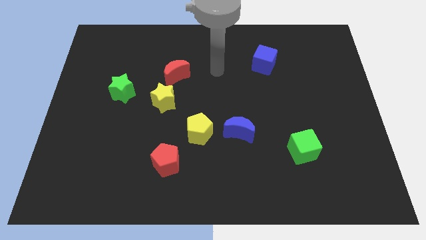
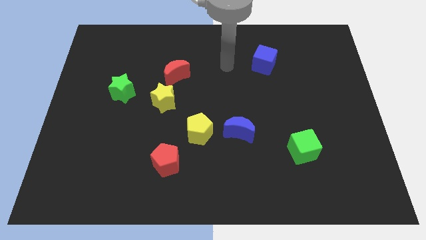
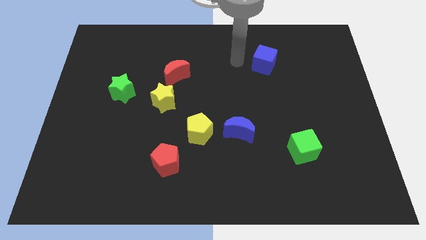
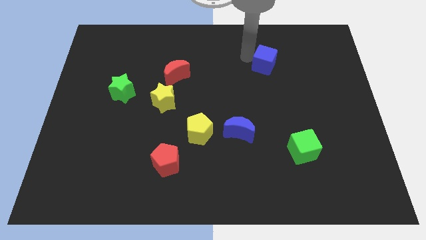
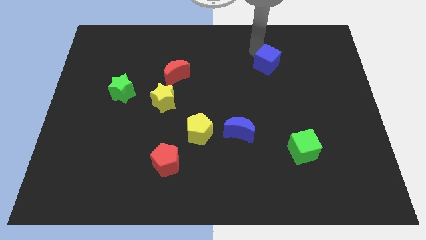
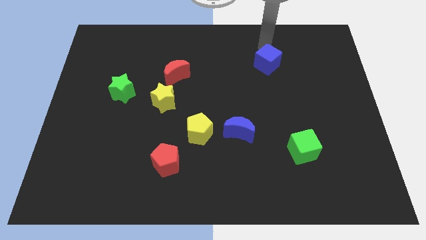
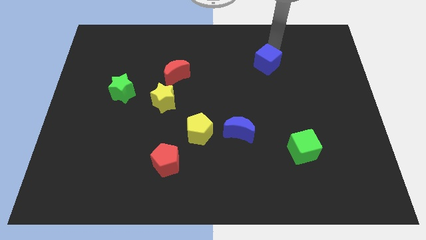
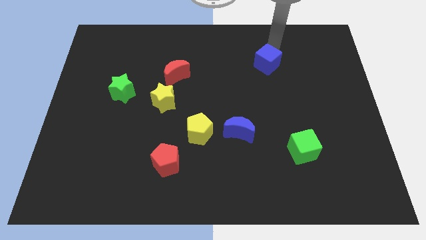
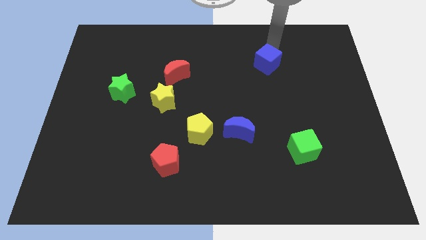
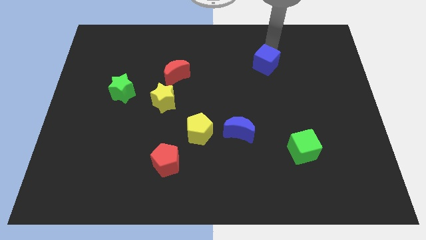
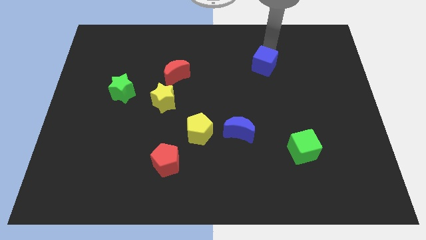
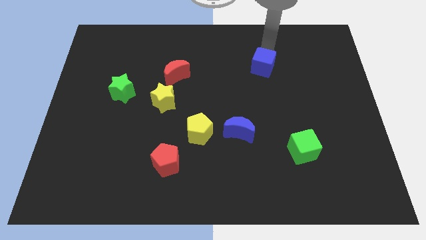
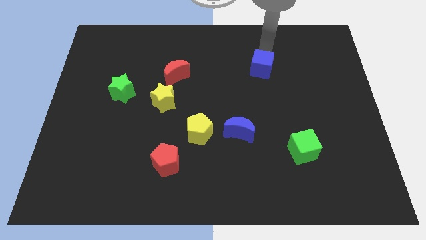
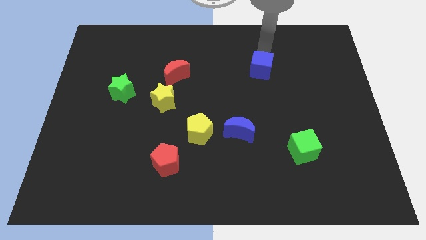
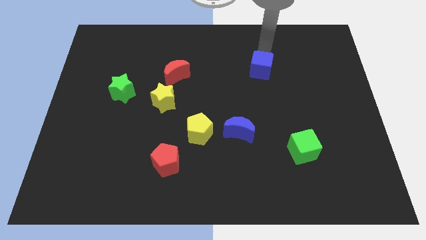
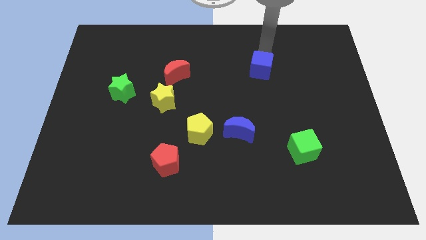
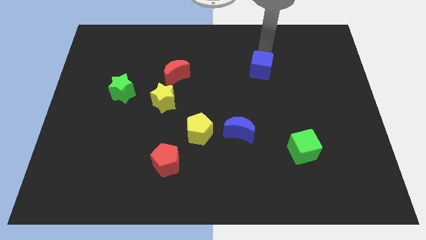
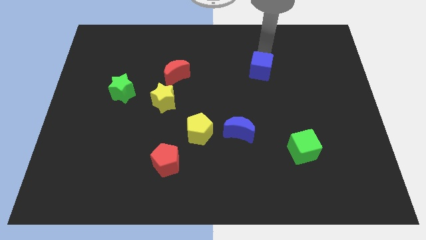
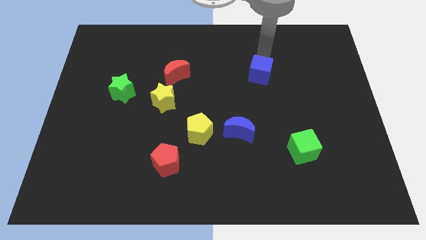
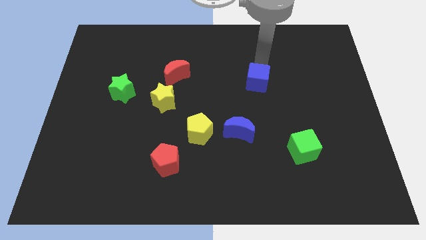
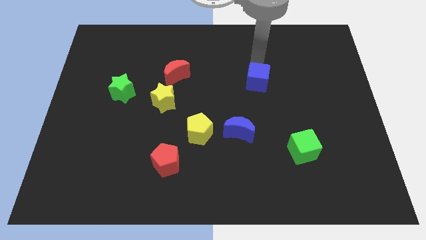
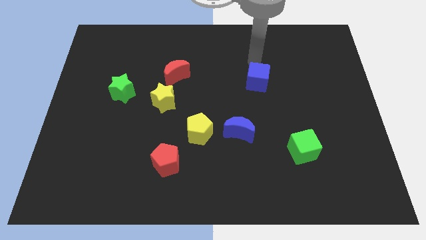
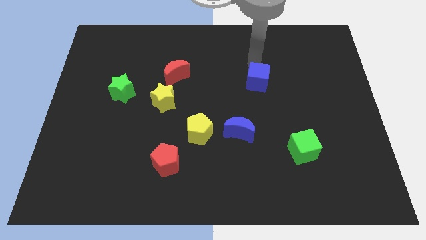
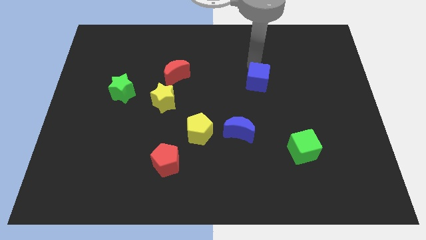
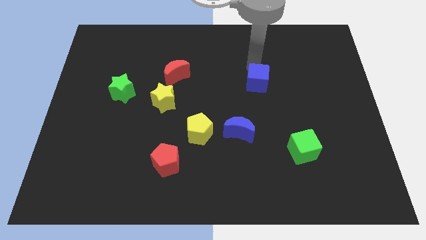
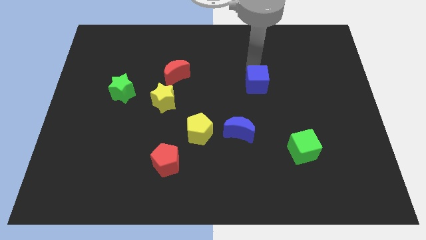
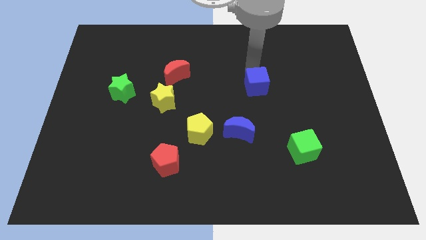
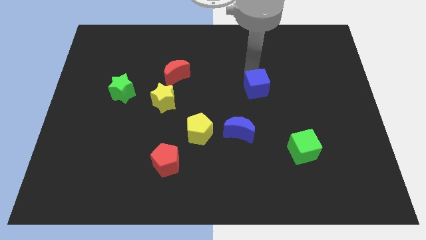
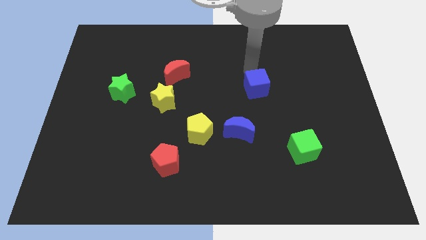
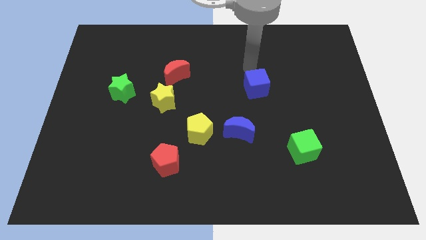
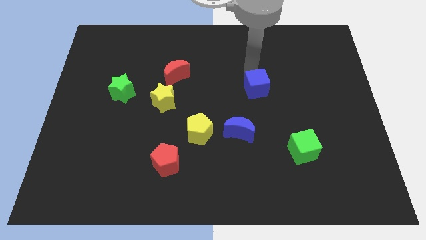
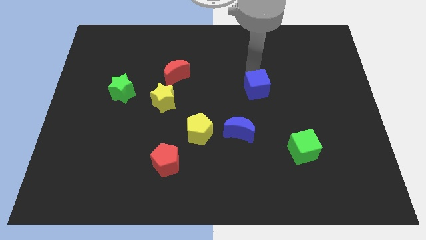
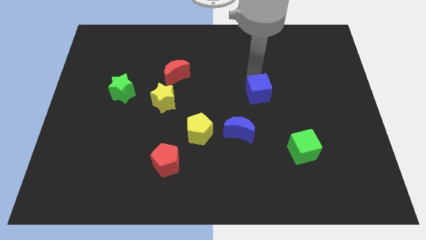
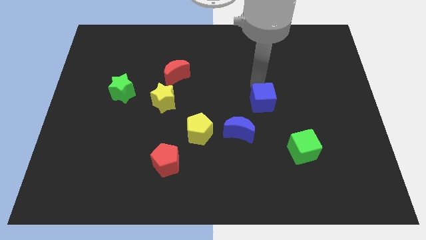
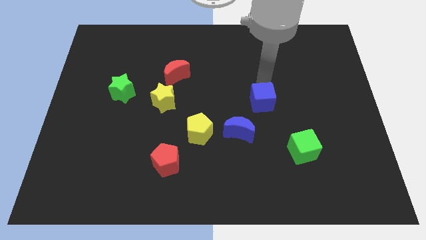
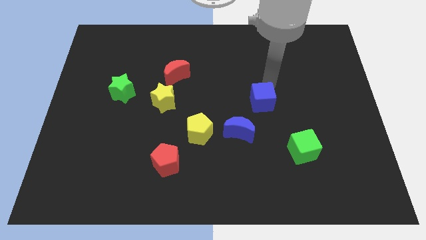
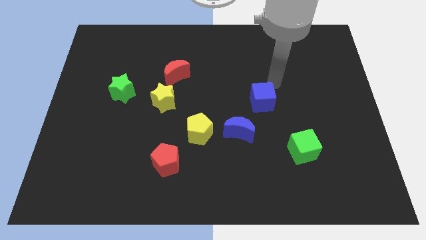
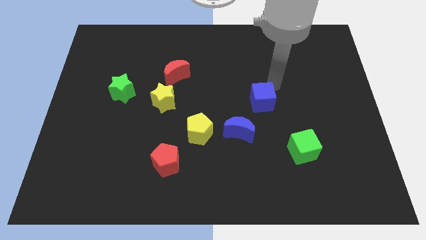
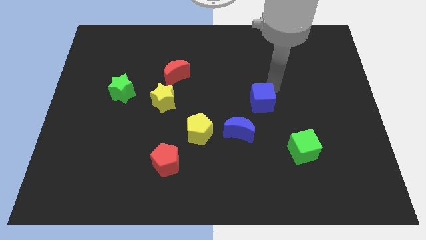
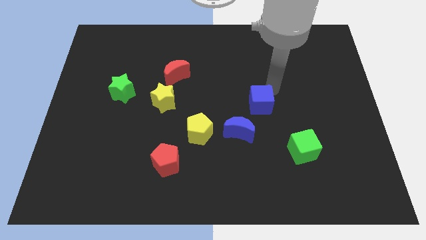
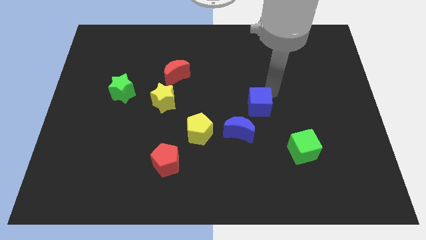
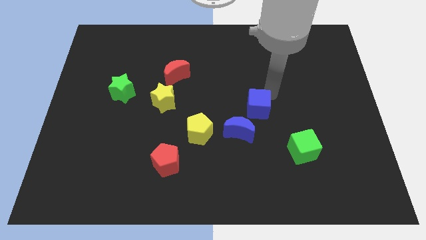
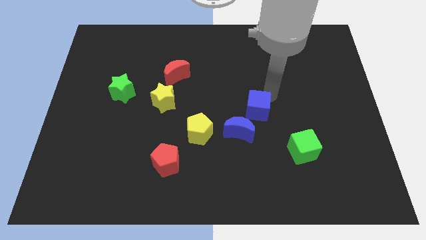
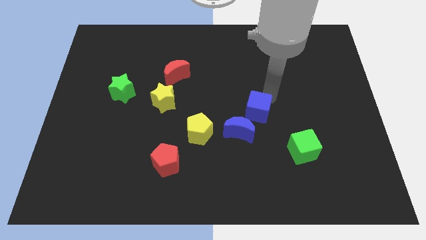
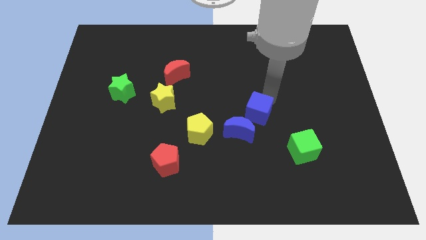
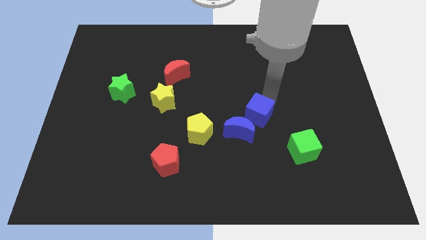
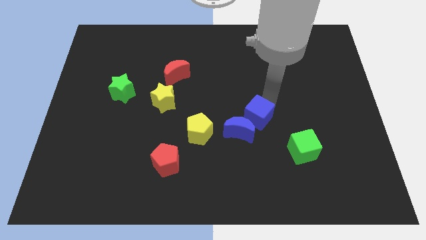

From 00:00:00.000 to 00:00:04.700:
move the blue cube next to the blue moon

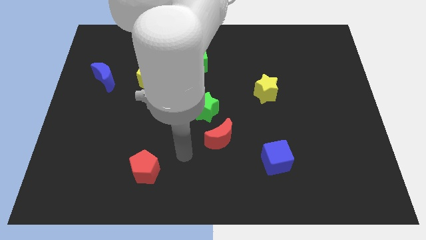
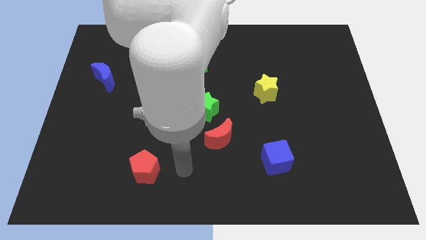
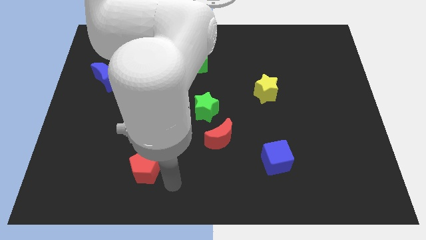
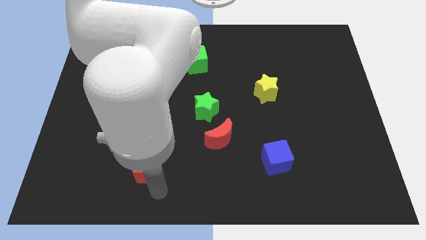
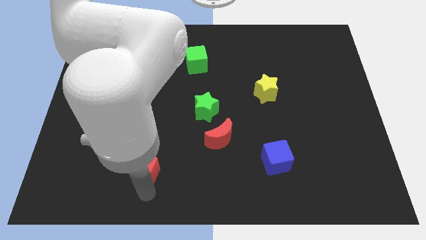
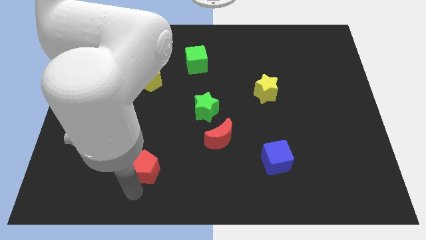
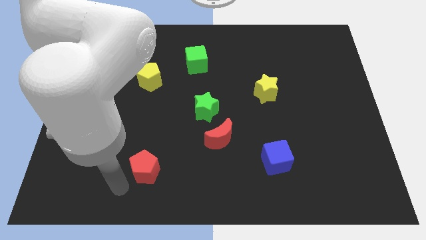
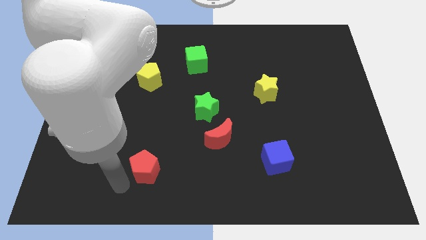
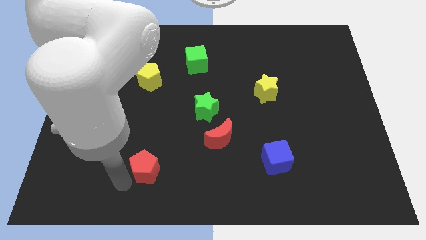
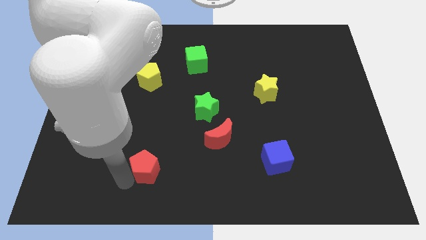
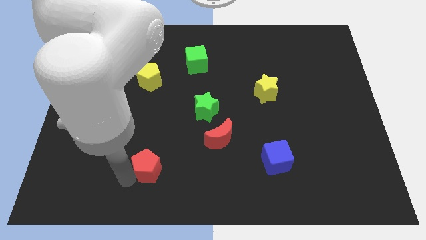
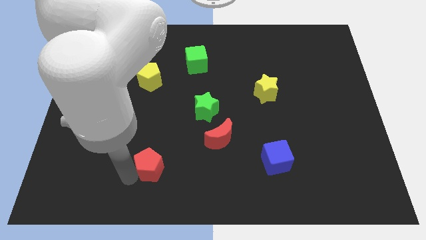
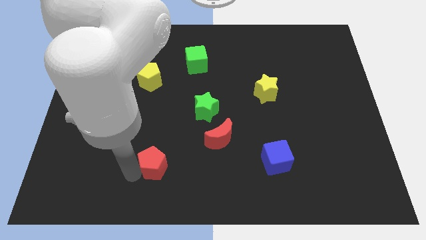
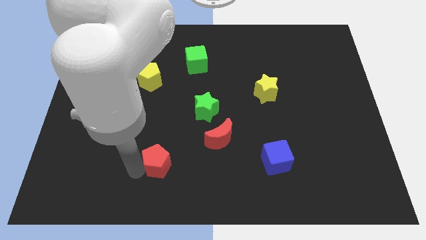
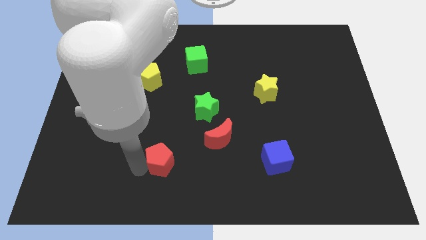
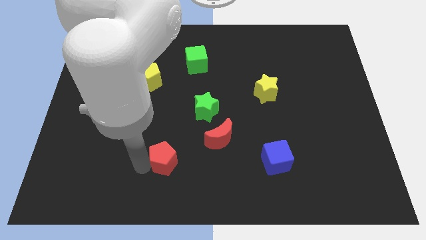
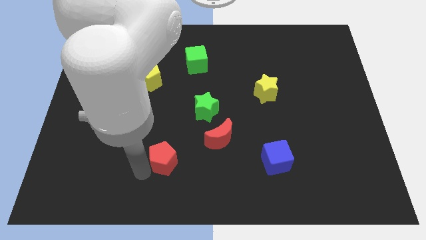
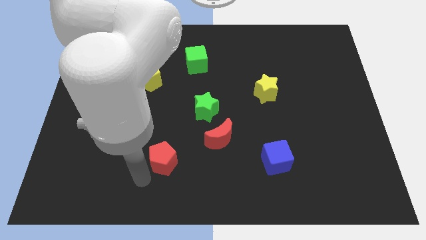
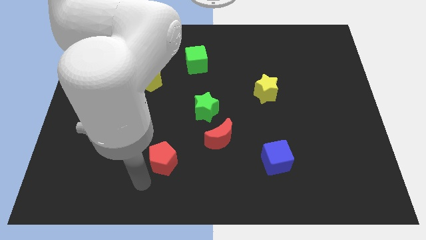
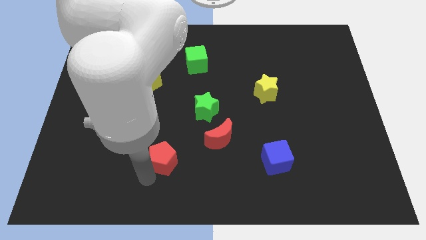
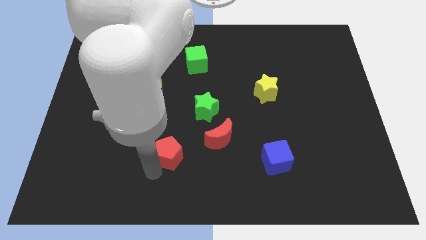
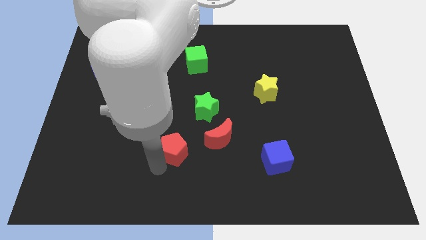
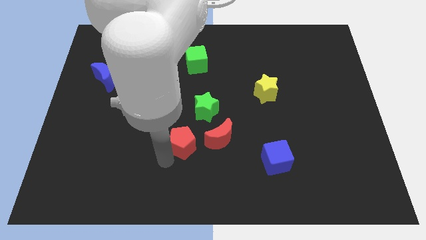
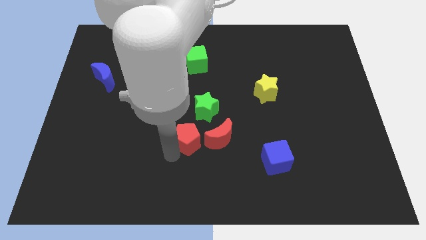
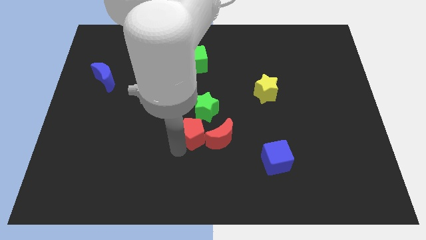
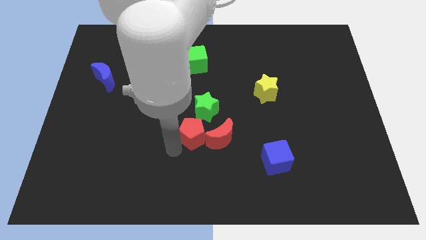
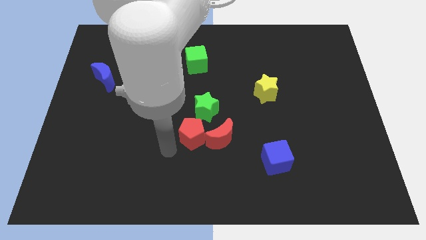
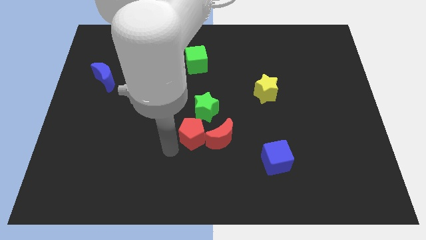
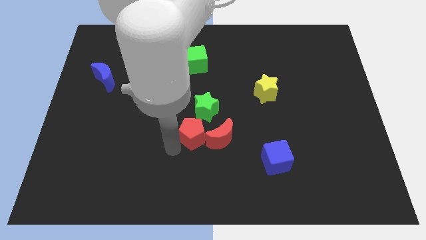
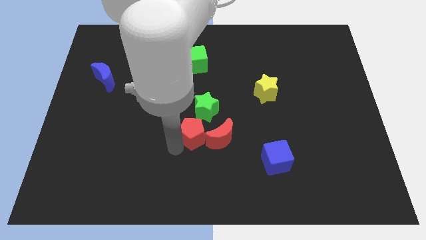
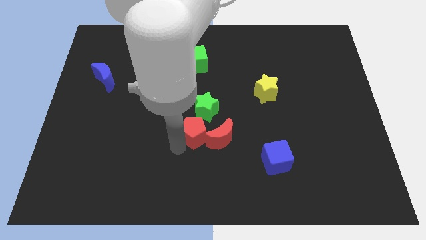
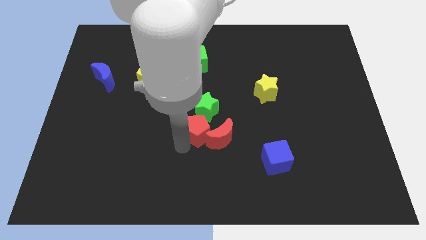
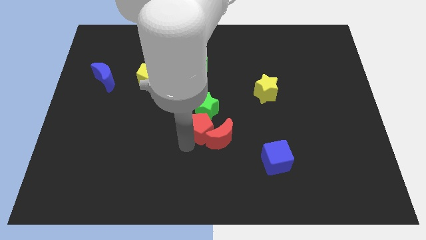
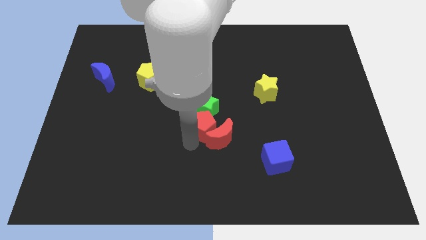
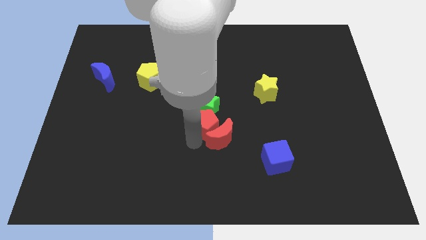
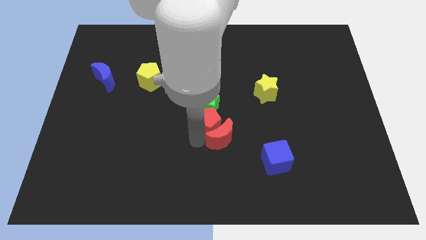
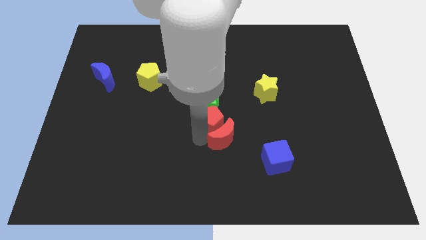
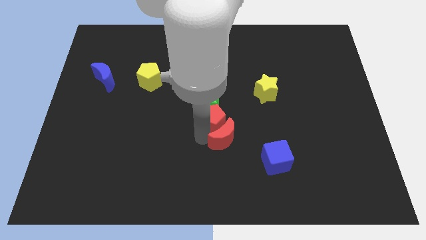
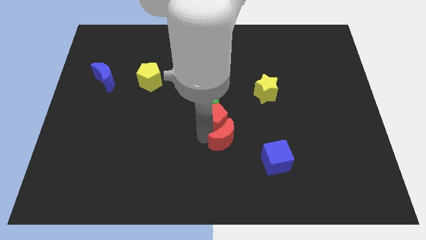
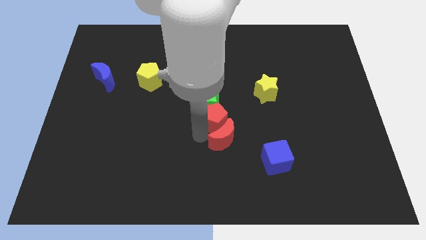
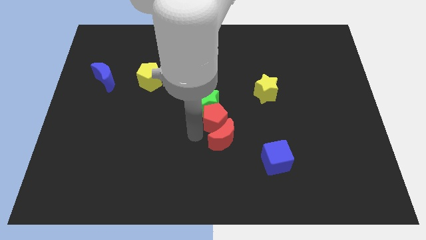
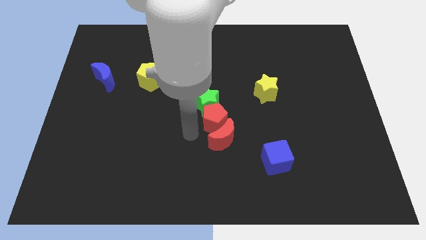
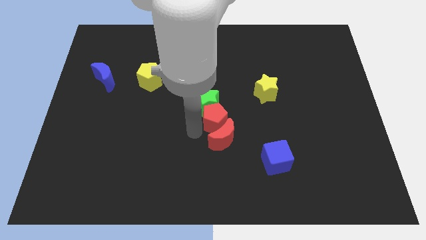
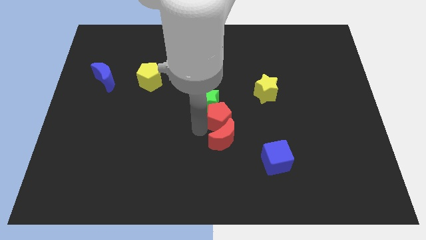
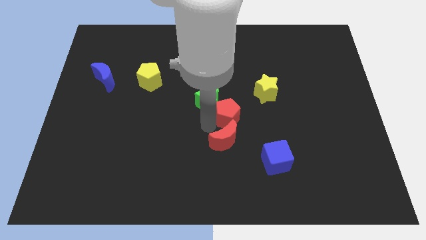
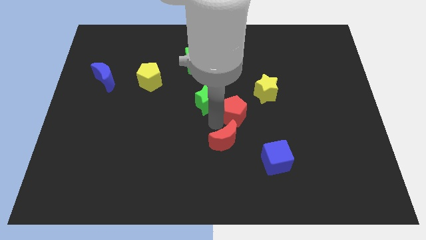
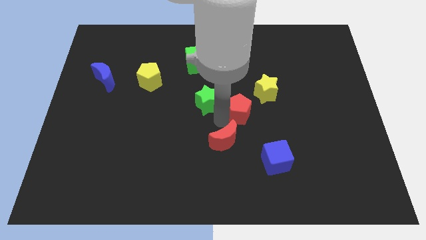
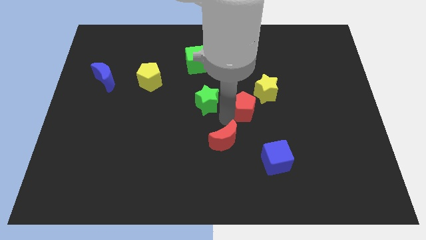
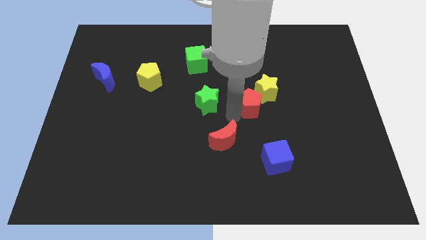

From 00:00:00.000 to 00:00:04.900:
push the red pentagon close to the yellow star
